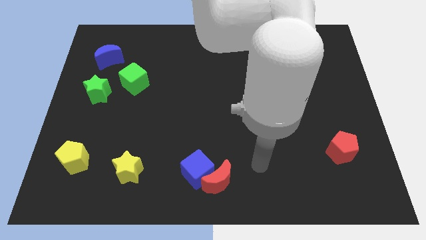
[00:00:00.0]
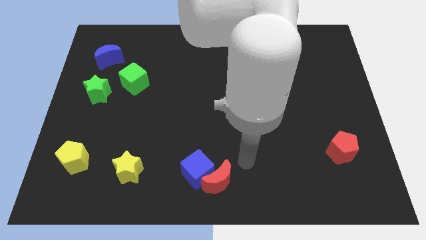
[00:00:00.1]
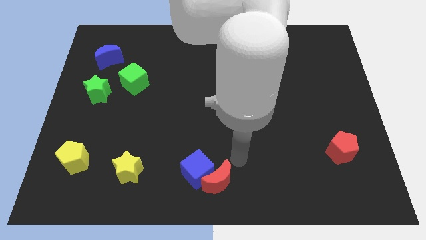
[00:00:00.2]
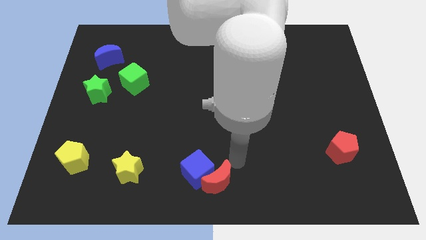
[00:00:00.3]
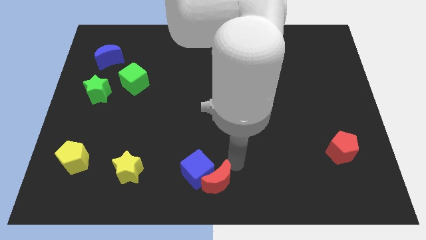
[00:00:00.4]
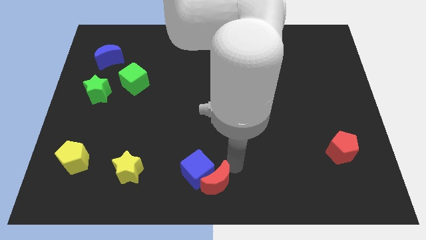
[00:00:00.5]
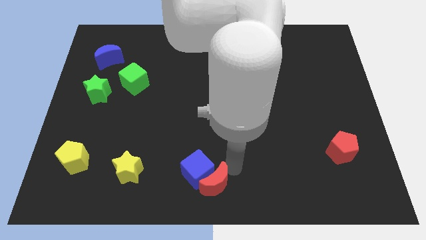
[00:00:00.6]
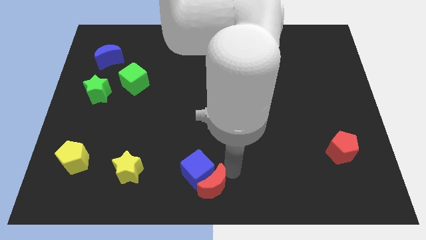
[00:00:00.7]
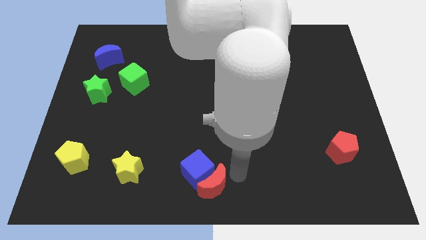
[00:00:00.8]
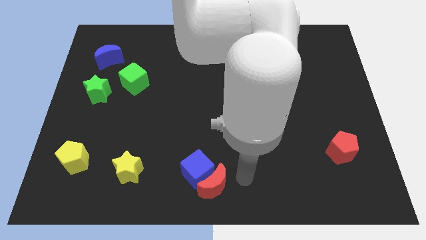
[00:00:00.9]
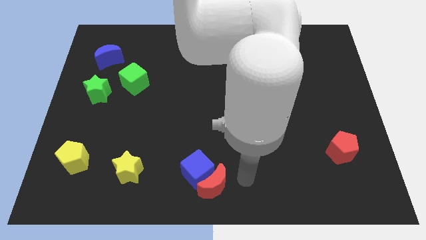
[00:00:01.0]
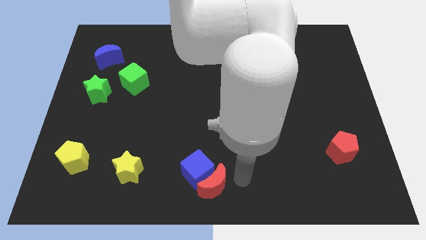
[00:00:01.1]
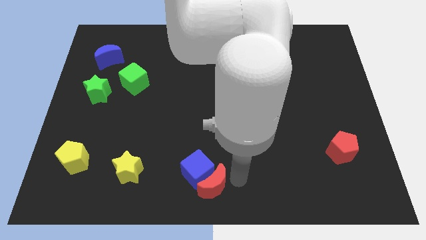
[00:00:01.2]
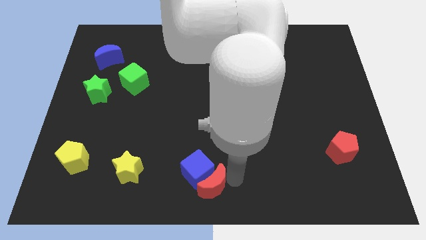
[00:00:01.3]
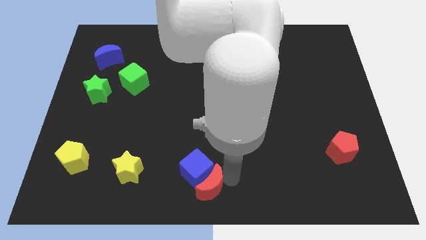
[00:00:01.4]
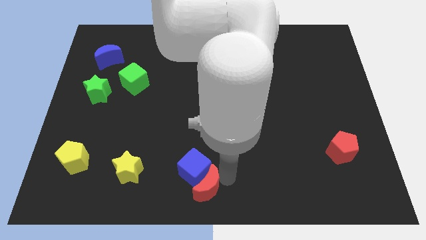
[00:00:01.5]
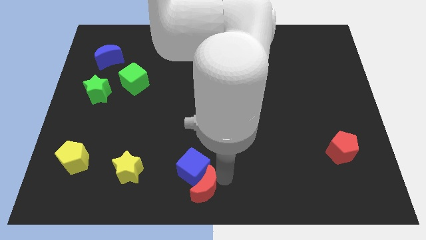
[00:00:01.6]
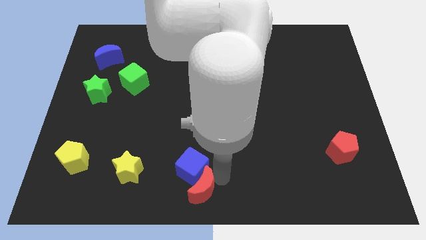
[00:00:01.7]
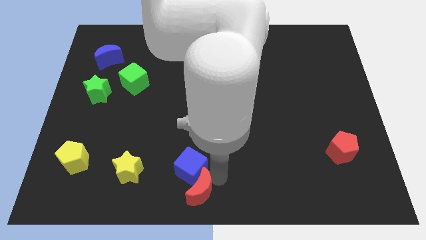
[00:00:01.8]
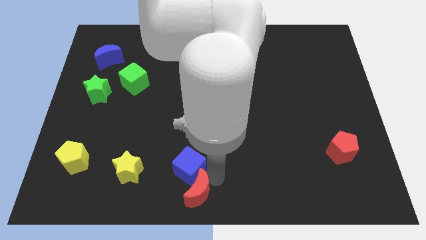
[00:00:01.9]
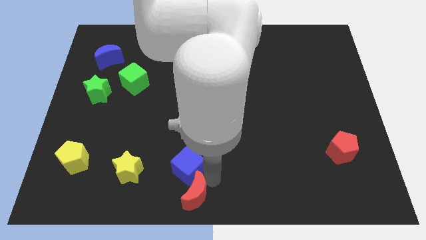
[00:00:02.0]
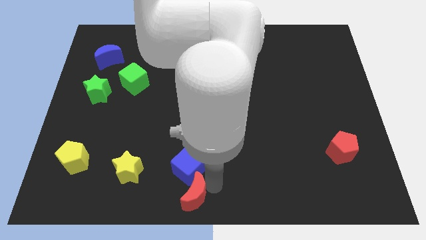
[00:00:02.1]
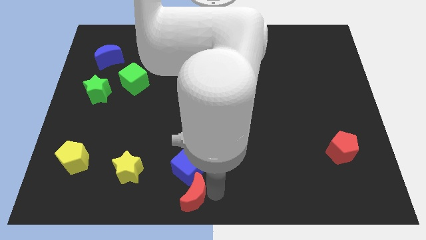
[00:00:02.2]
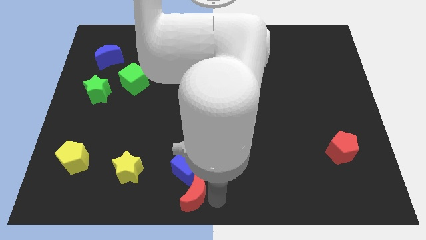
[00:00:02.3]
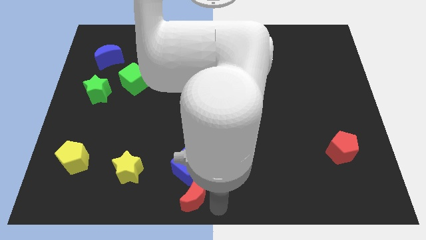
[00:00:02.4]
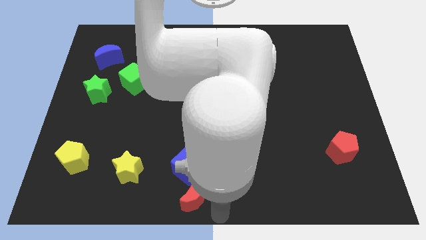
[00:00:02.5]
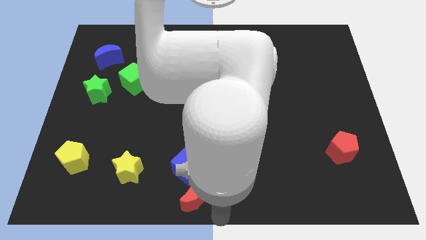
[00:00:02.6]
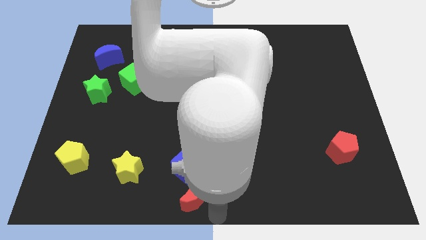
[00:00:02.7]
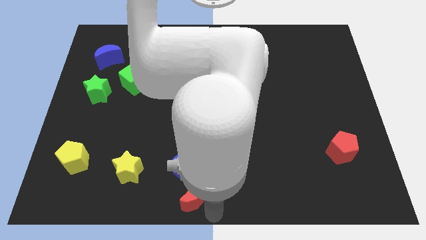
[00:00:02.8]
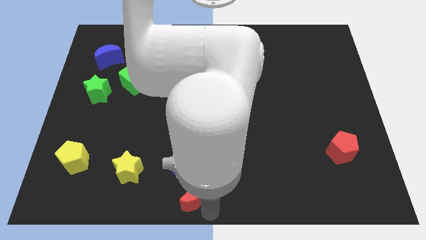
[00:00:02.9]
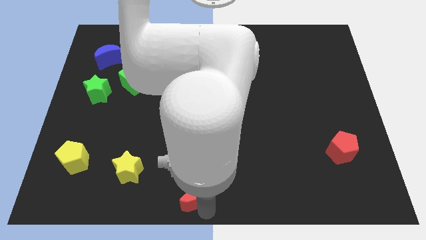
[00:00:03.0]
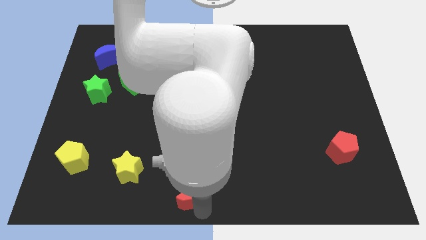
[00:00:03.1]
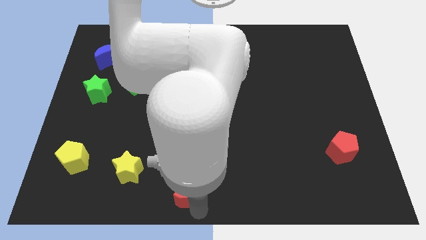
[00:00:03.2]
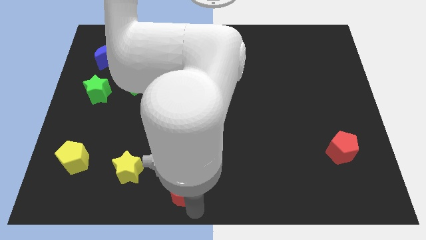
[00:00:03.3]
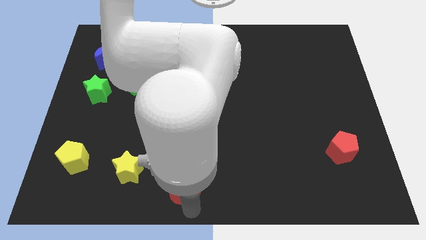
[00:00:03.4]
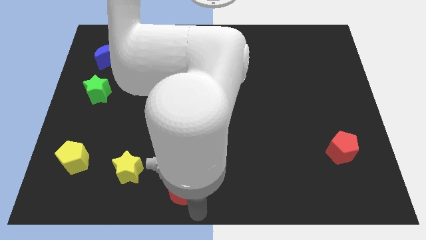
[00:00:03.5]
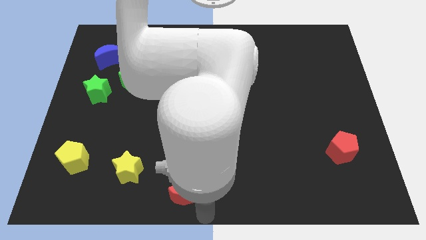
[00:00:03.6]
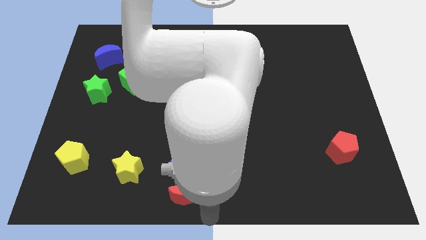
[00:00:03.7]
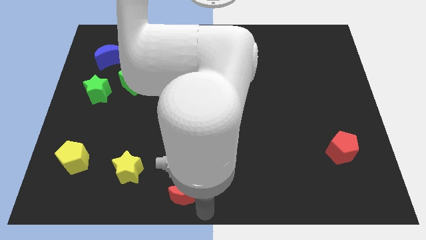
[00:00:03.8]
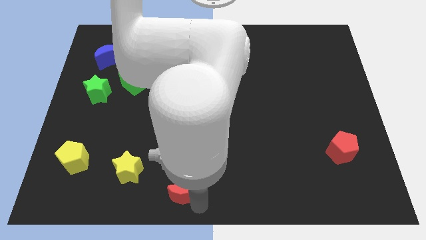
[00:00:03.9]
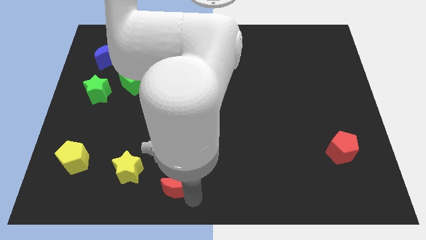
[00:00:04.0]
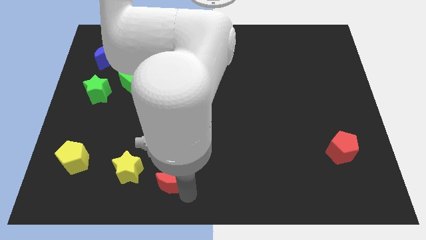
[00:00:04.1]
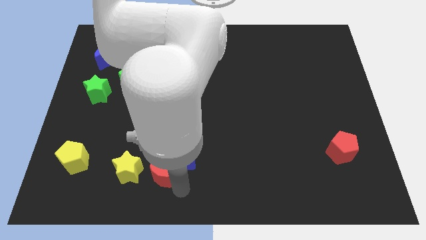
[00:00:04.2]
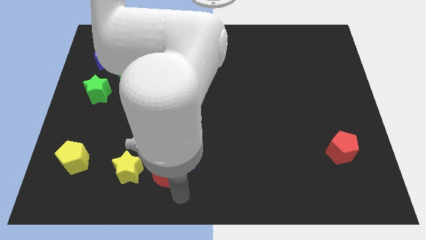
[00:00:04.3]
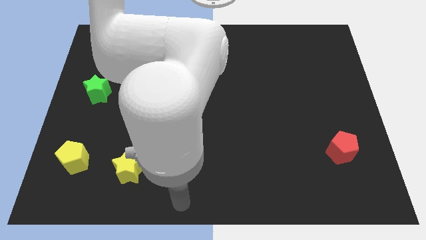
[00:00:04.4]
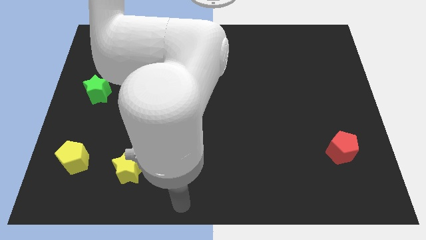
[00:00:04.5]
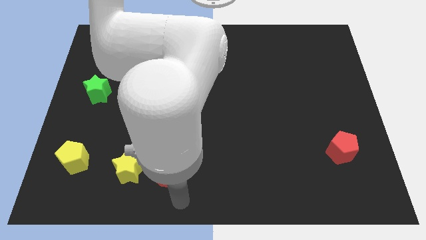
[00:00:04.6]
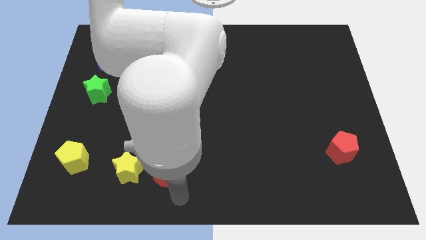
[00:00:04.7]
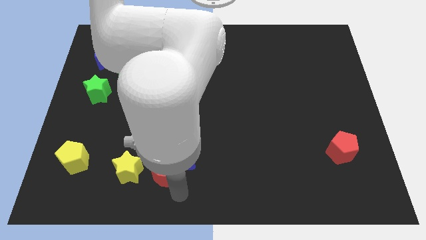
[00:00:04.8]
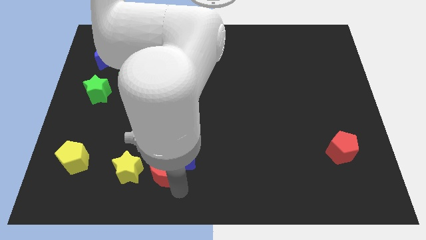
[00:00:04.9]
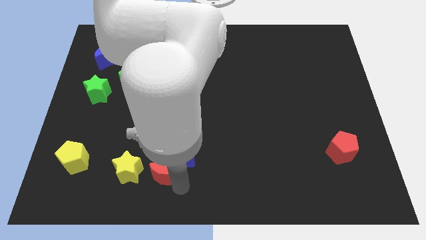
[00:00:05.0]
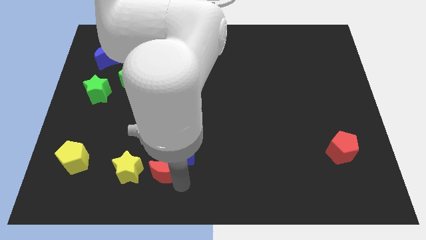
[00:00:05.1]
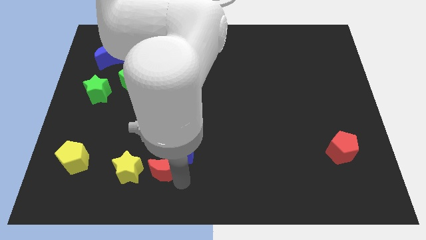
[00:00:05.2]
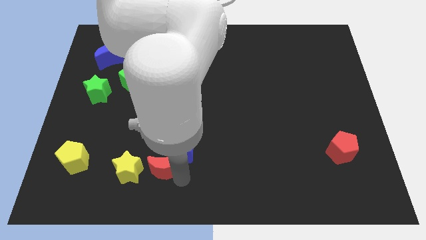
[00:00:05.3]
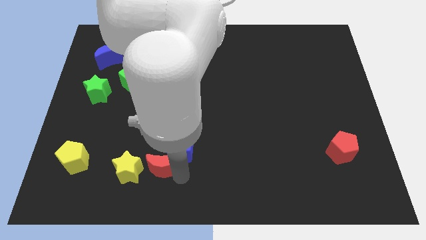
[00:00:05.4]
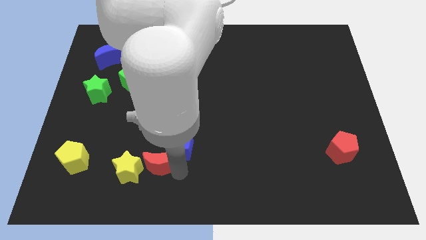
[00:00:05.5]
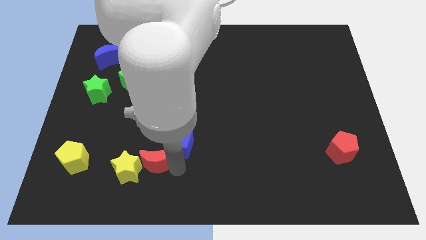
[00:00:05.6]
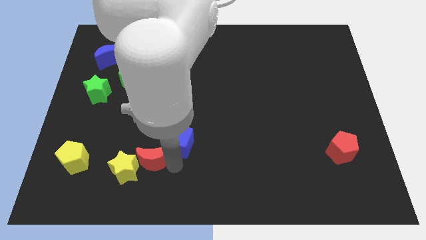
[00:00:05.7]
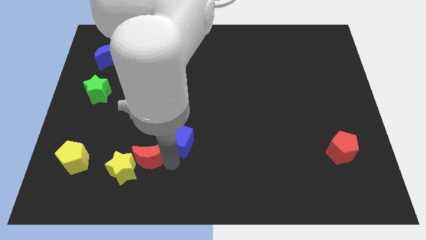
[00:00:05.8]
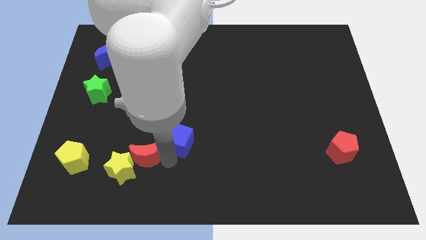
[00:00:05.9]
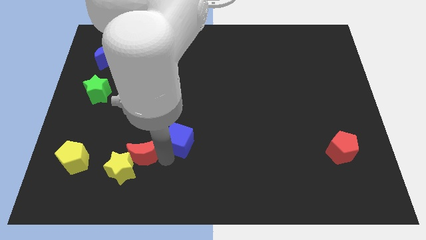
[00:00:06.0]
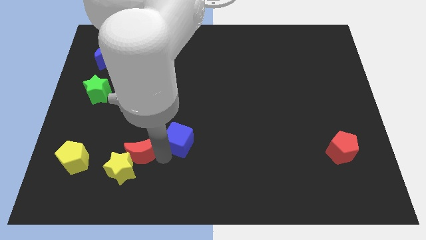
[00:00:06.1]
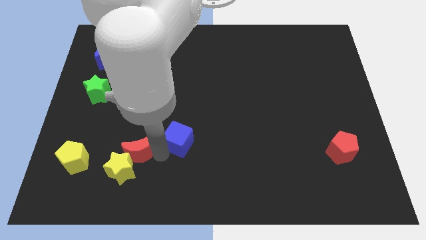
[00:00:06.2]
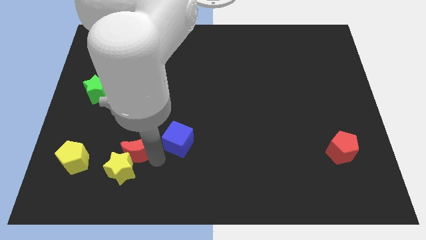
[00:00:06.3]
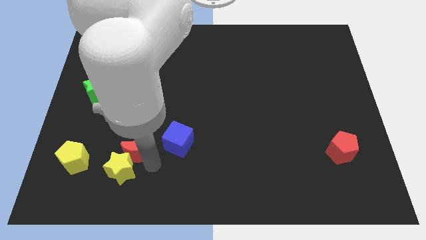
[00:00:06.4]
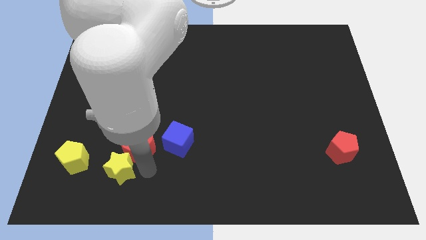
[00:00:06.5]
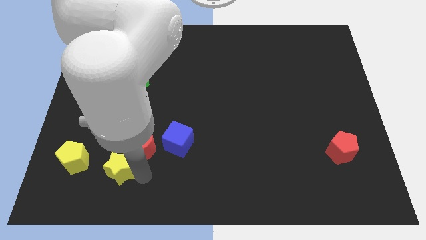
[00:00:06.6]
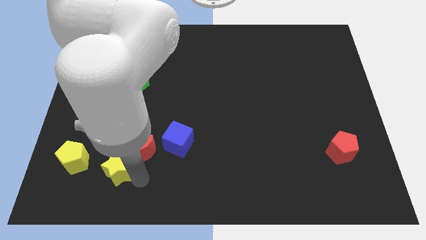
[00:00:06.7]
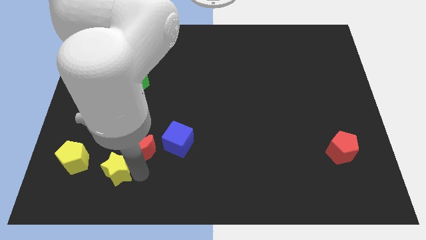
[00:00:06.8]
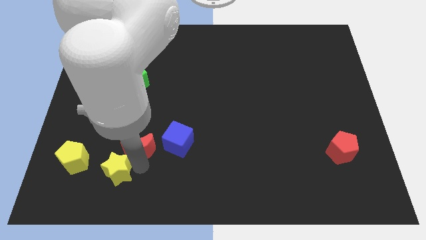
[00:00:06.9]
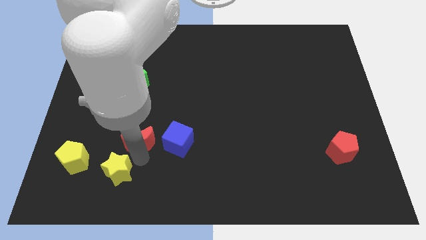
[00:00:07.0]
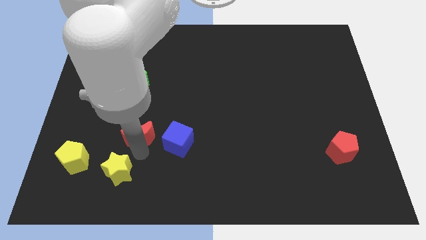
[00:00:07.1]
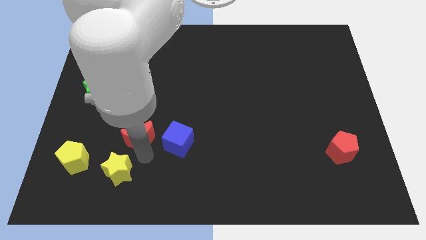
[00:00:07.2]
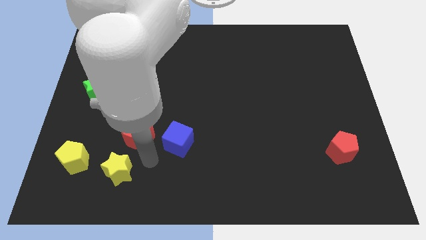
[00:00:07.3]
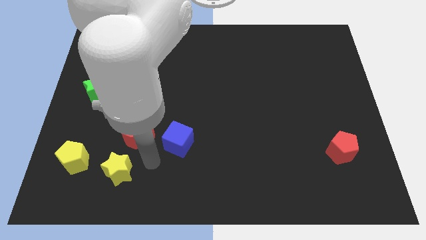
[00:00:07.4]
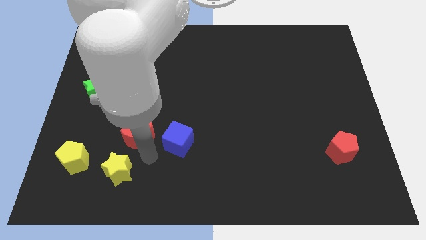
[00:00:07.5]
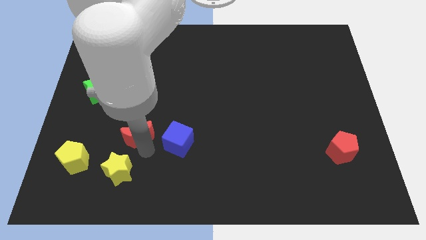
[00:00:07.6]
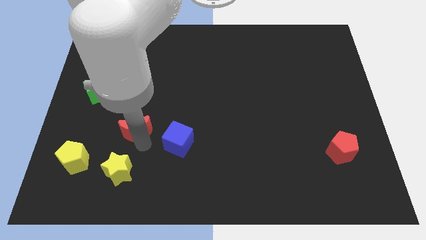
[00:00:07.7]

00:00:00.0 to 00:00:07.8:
move the red moon to the bottom of the green cube
